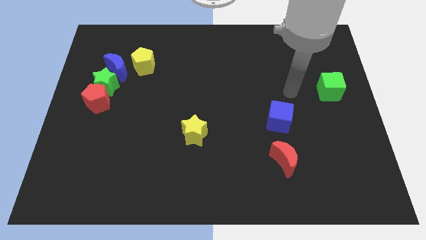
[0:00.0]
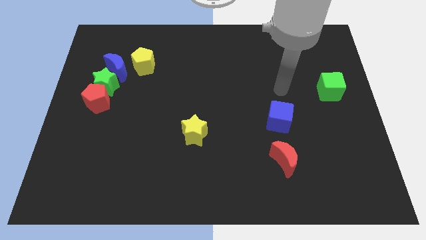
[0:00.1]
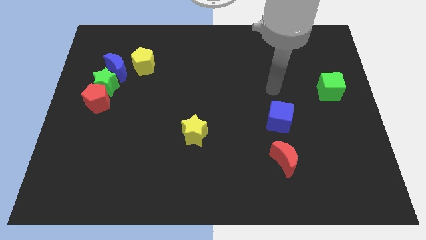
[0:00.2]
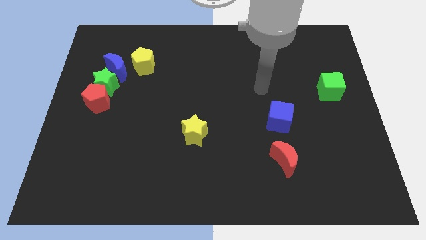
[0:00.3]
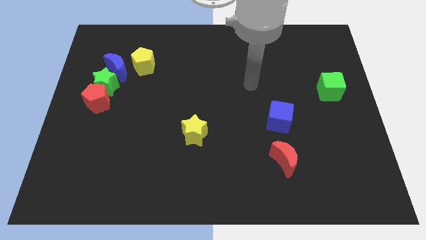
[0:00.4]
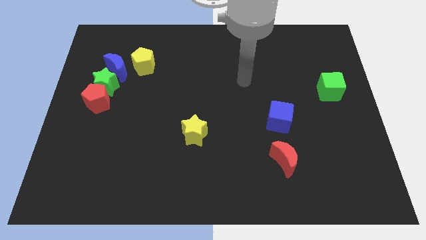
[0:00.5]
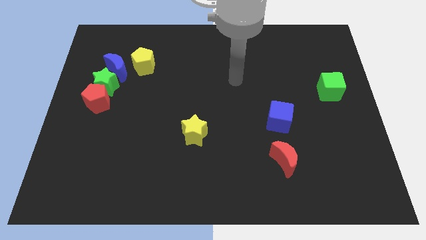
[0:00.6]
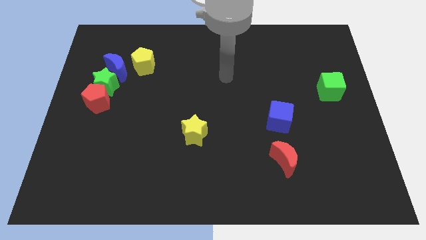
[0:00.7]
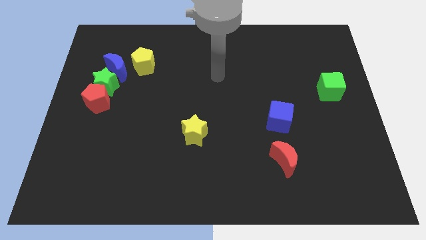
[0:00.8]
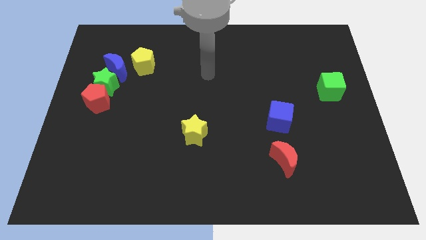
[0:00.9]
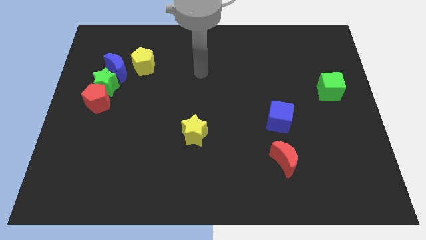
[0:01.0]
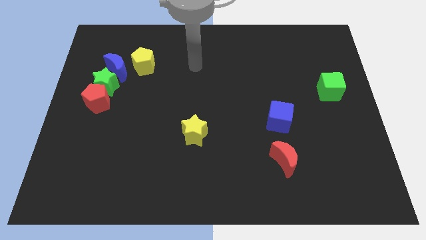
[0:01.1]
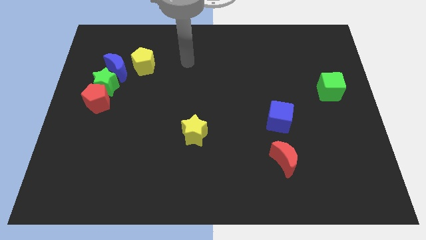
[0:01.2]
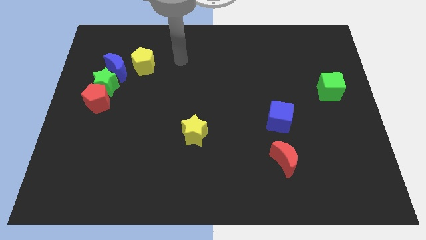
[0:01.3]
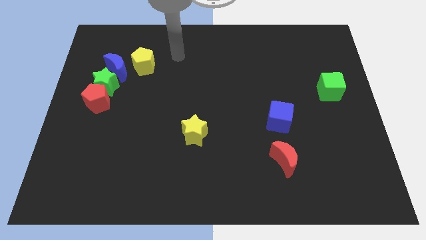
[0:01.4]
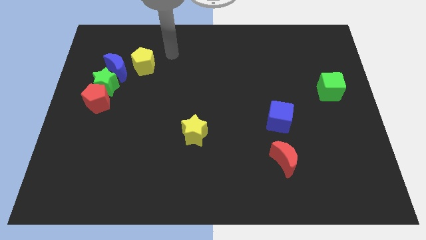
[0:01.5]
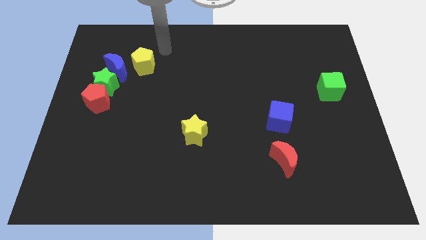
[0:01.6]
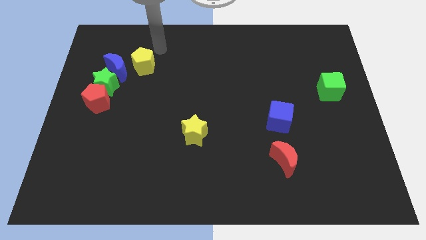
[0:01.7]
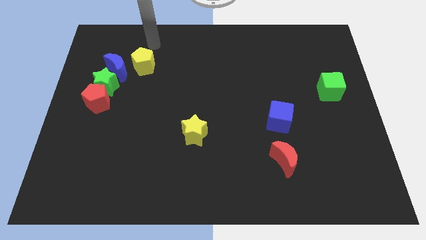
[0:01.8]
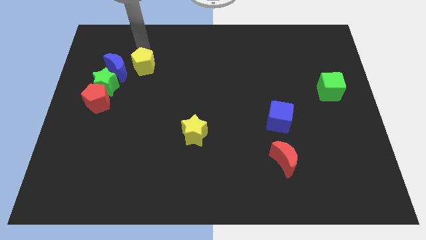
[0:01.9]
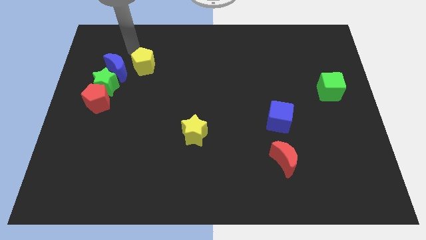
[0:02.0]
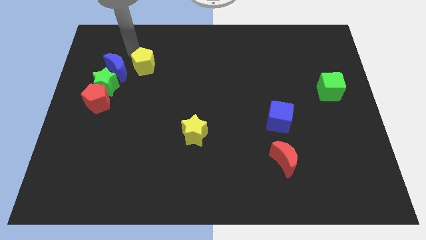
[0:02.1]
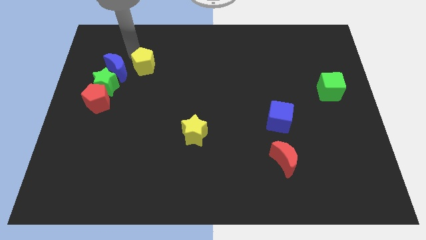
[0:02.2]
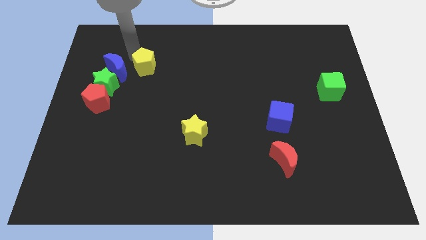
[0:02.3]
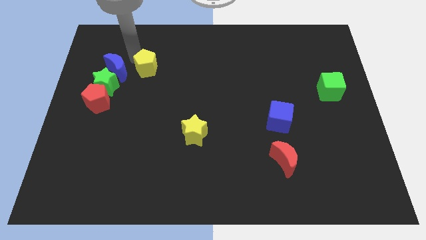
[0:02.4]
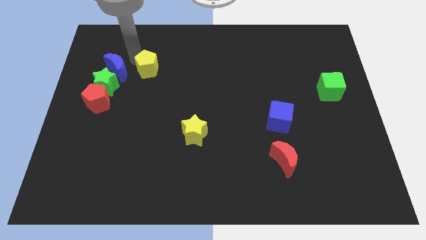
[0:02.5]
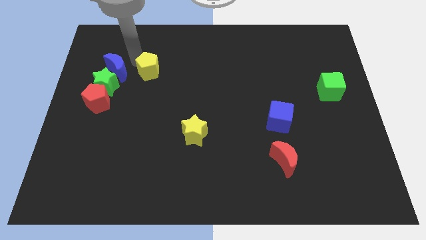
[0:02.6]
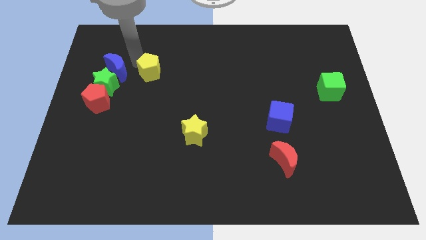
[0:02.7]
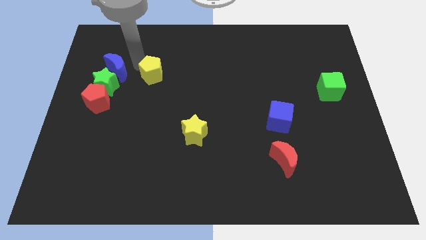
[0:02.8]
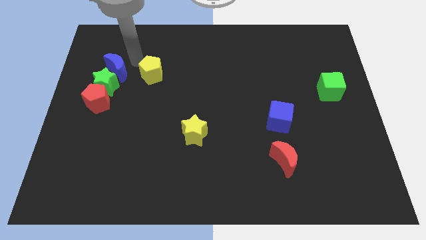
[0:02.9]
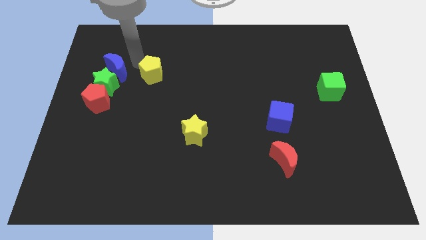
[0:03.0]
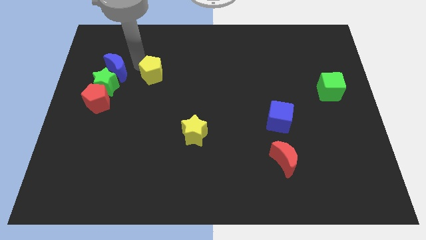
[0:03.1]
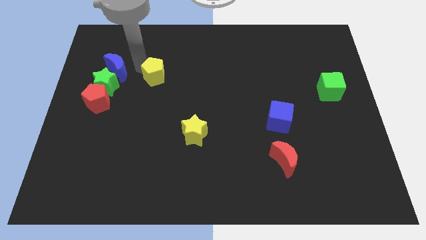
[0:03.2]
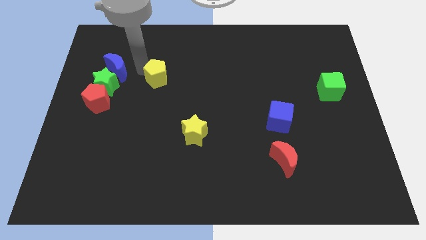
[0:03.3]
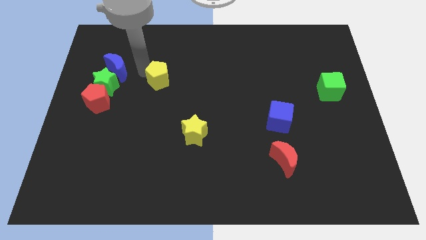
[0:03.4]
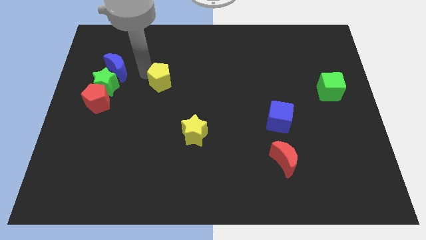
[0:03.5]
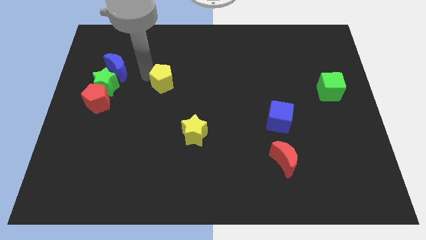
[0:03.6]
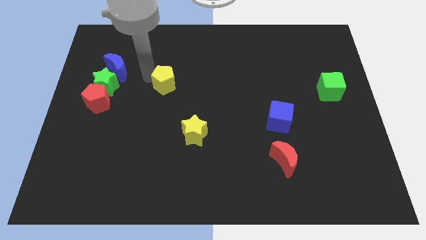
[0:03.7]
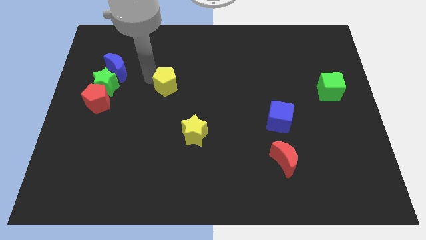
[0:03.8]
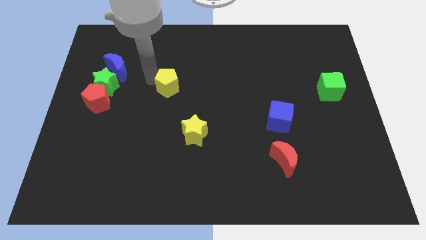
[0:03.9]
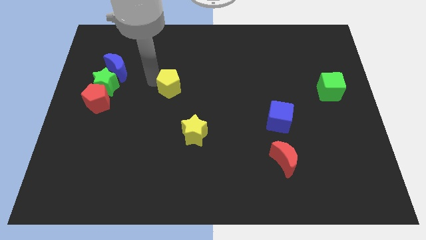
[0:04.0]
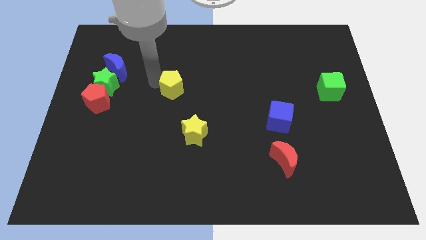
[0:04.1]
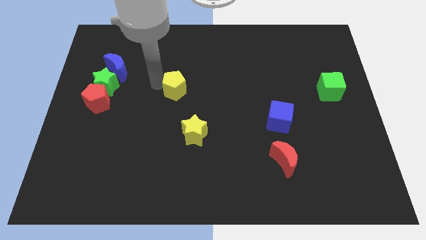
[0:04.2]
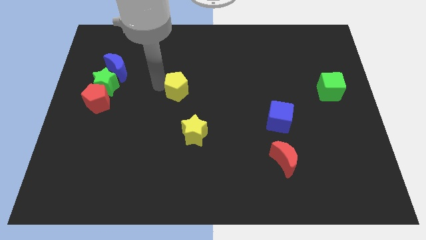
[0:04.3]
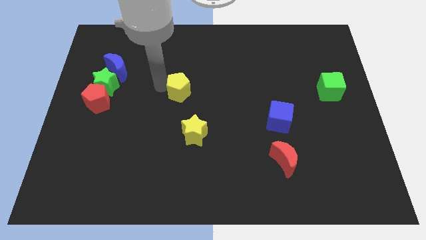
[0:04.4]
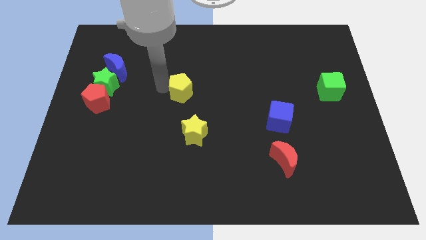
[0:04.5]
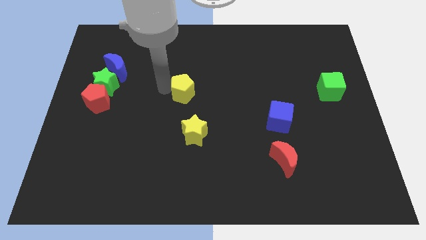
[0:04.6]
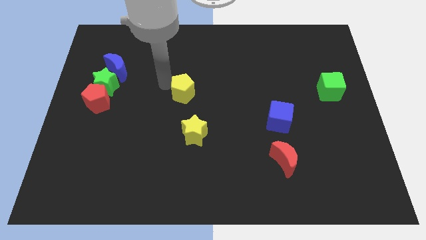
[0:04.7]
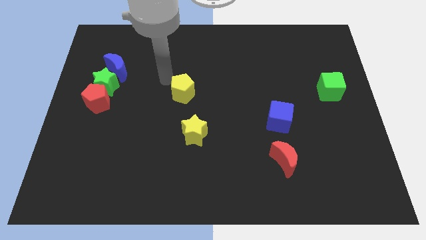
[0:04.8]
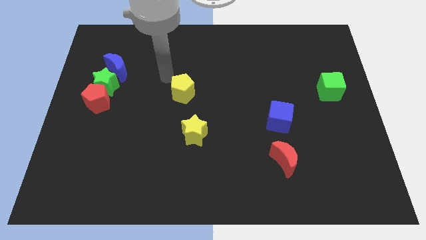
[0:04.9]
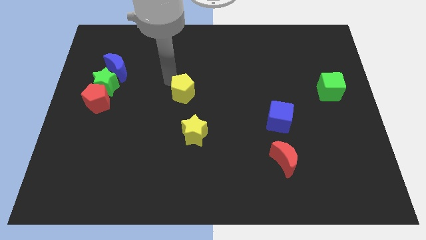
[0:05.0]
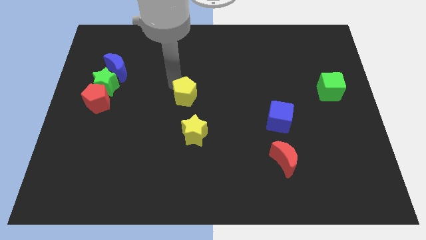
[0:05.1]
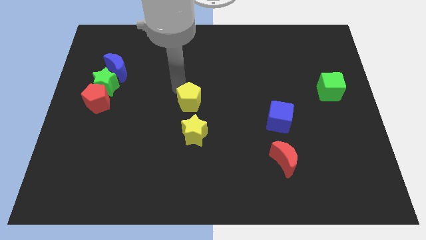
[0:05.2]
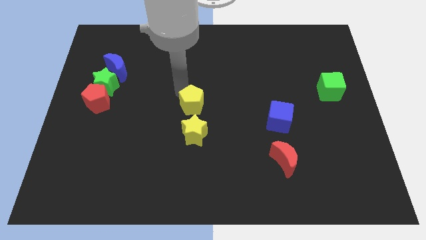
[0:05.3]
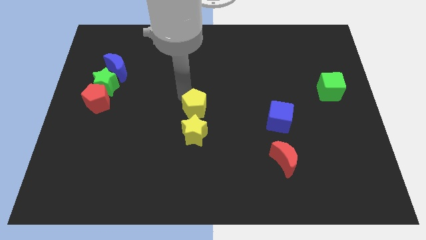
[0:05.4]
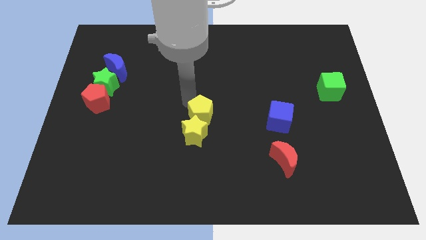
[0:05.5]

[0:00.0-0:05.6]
move the yellow pentagon down and right

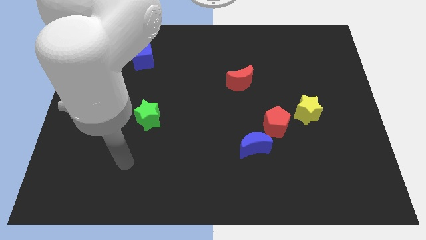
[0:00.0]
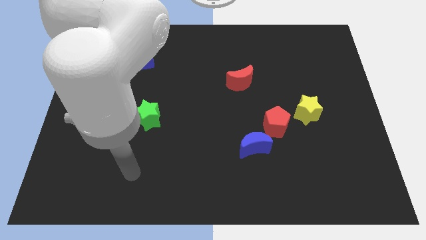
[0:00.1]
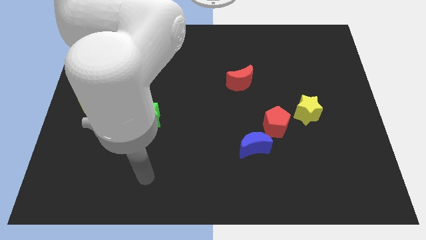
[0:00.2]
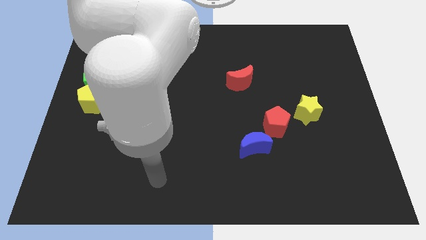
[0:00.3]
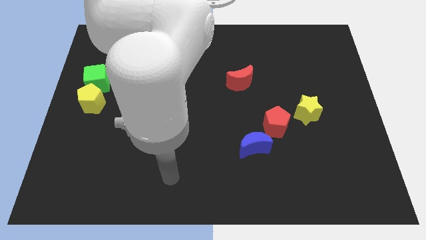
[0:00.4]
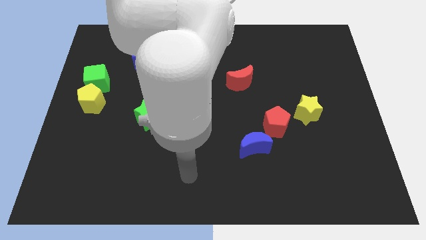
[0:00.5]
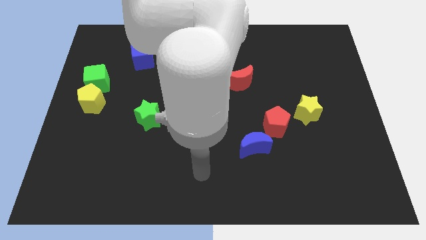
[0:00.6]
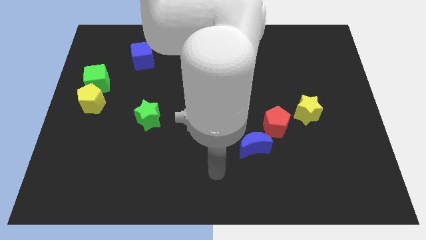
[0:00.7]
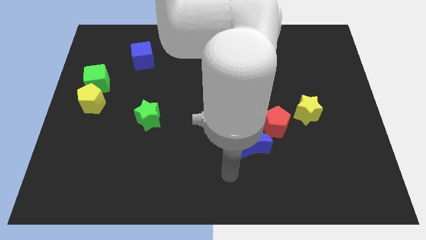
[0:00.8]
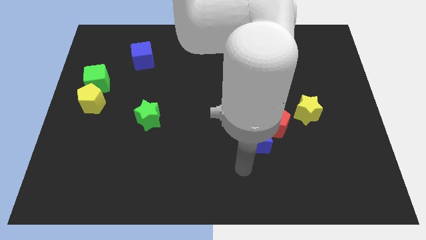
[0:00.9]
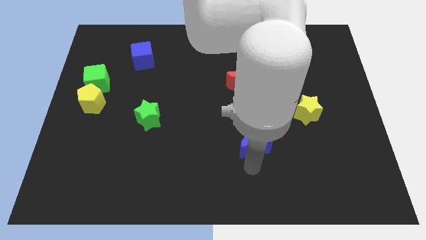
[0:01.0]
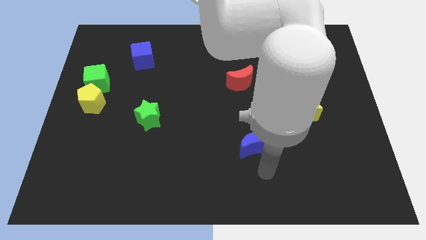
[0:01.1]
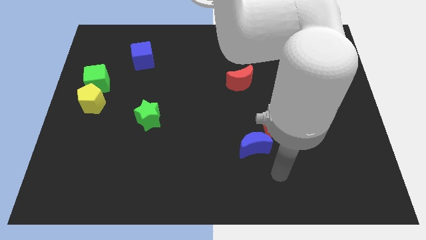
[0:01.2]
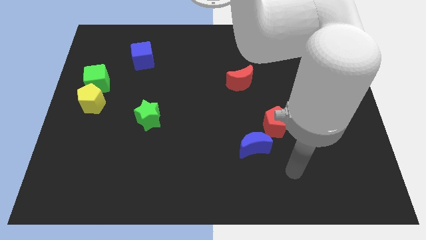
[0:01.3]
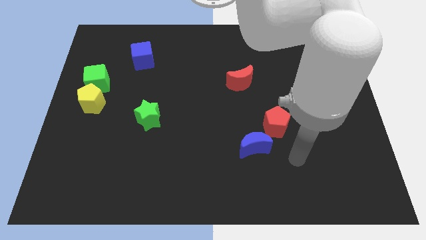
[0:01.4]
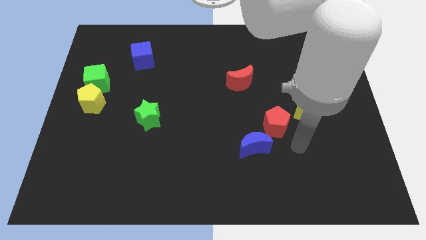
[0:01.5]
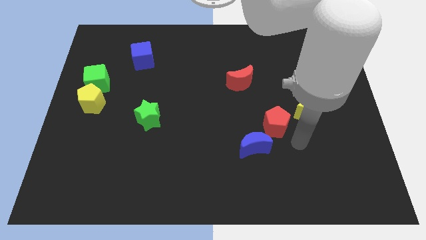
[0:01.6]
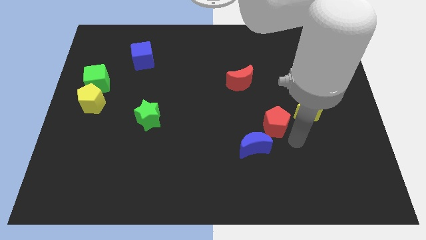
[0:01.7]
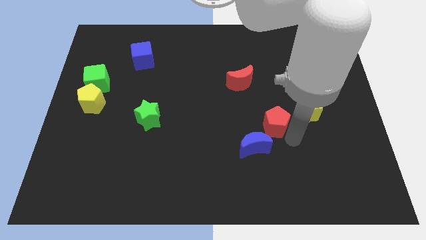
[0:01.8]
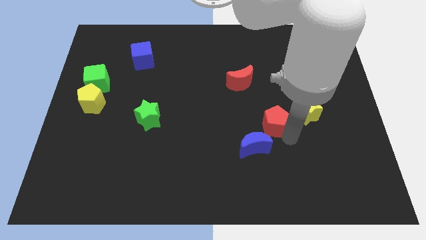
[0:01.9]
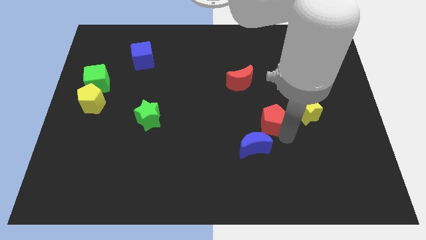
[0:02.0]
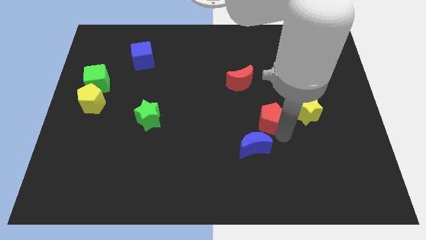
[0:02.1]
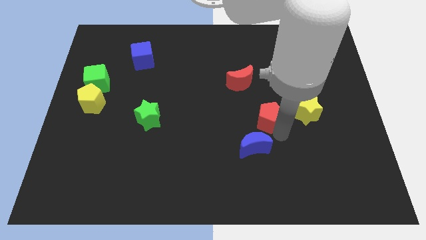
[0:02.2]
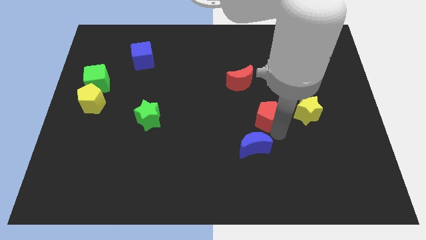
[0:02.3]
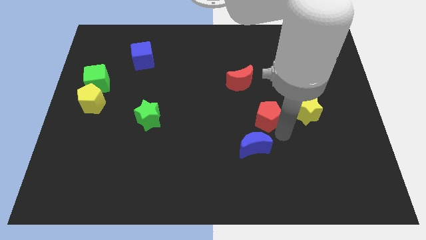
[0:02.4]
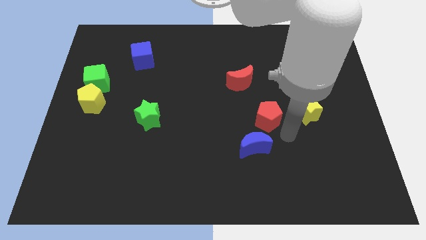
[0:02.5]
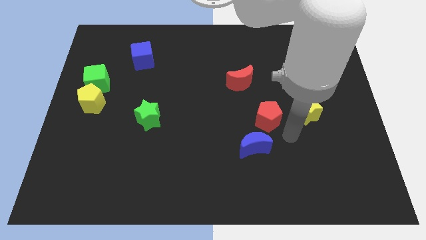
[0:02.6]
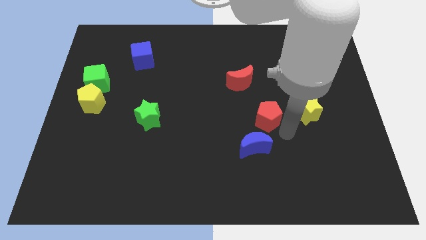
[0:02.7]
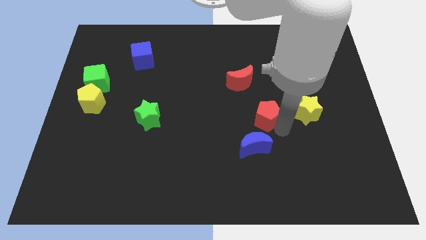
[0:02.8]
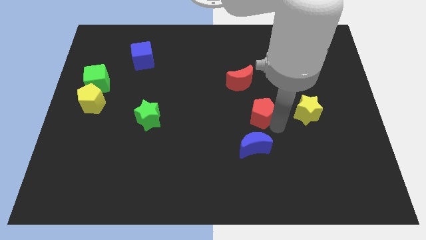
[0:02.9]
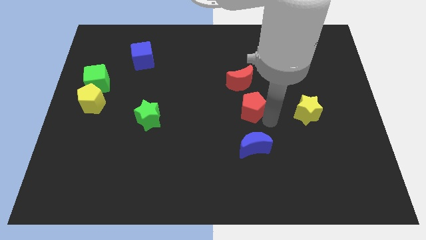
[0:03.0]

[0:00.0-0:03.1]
push the red pentagon a bit upwards and left diagonally
